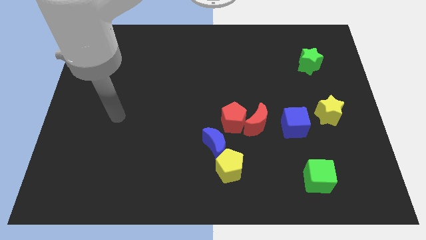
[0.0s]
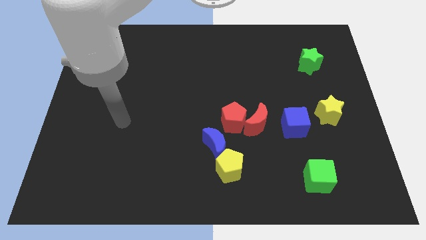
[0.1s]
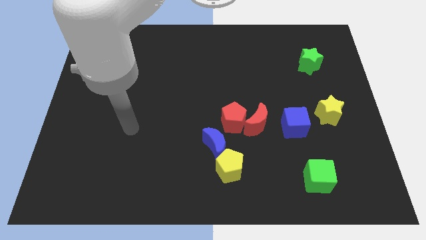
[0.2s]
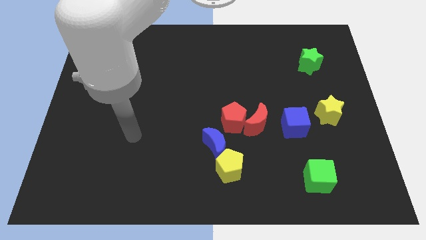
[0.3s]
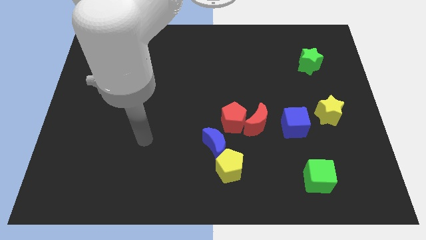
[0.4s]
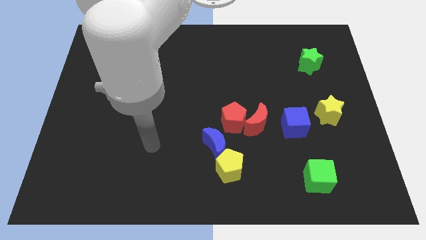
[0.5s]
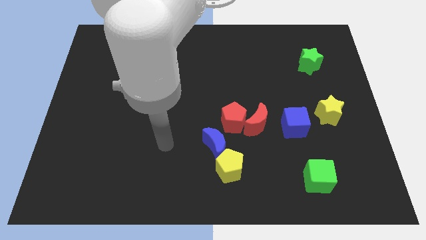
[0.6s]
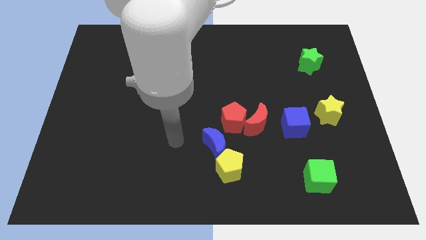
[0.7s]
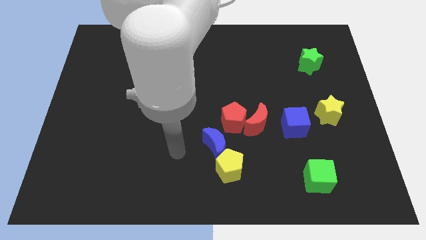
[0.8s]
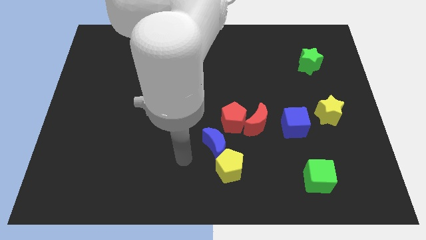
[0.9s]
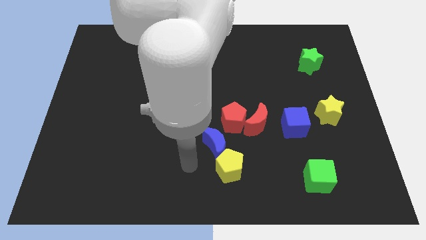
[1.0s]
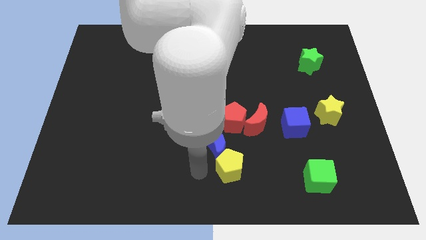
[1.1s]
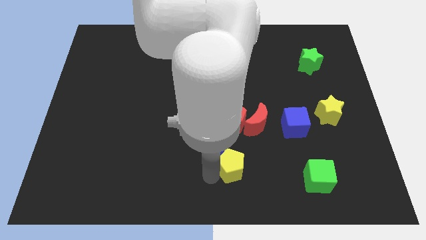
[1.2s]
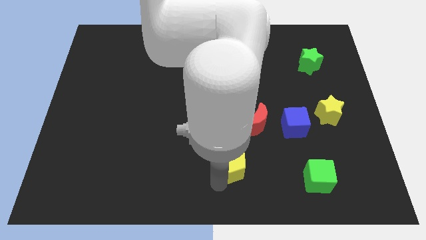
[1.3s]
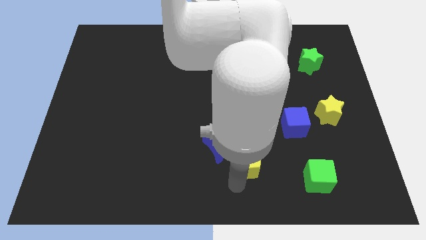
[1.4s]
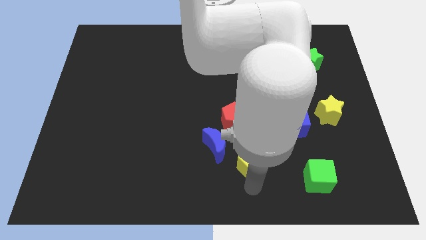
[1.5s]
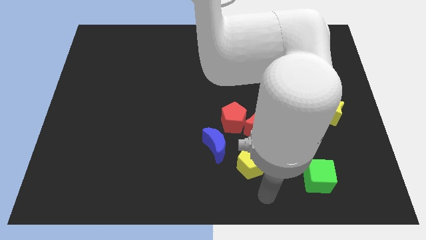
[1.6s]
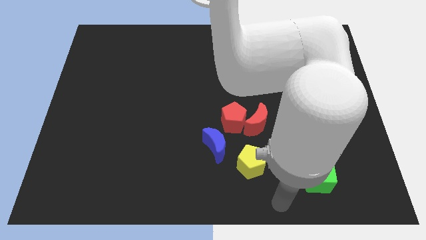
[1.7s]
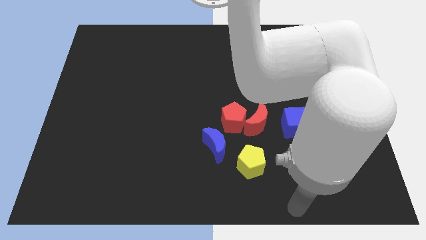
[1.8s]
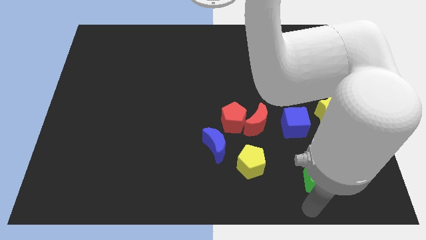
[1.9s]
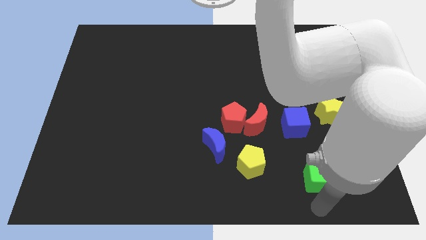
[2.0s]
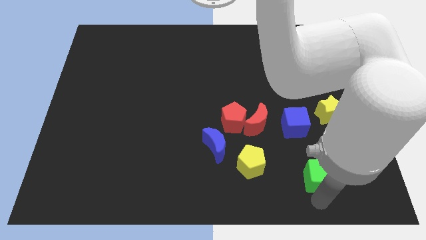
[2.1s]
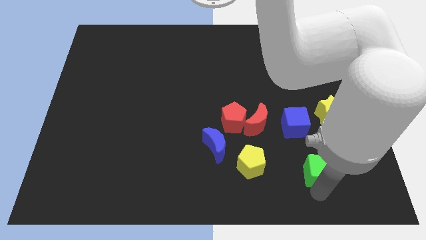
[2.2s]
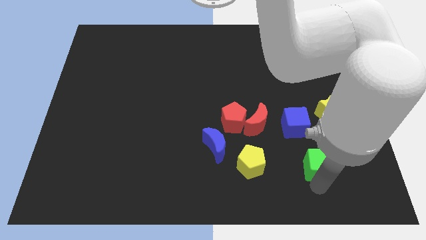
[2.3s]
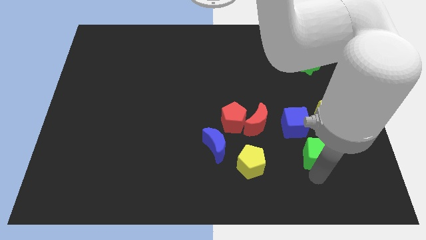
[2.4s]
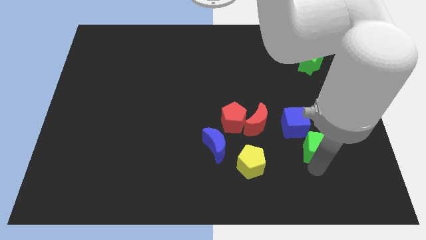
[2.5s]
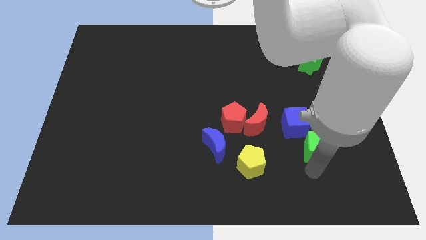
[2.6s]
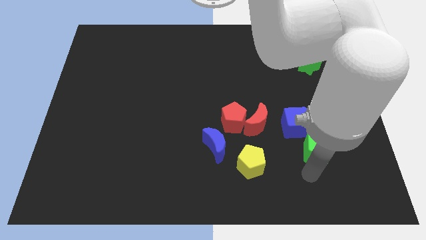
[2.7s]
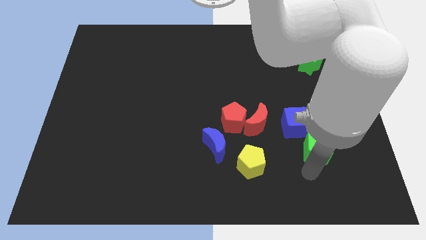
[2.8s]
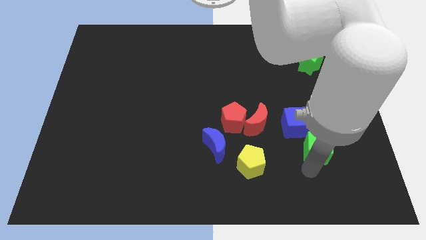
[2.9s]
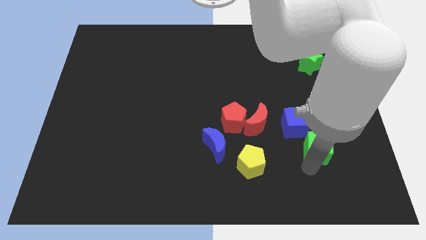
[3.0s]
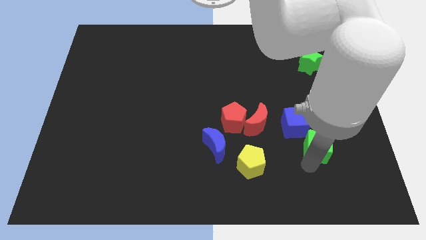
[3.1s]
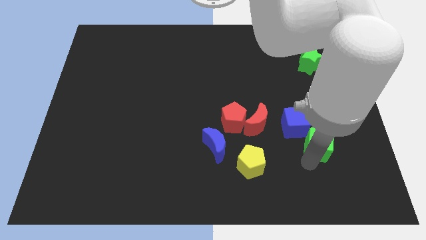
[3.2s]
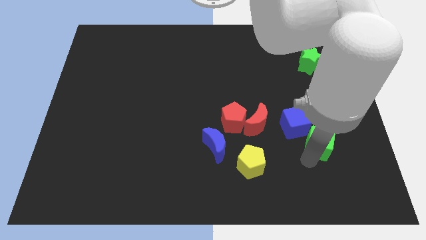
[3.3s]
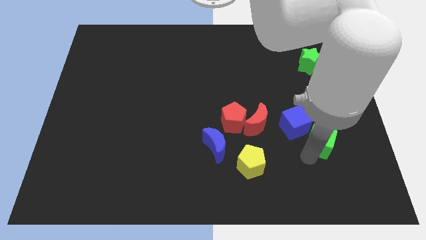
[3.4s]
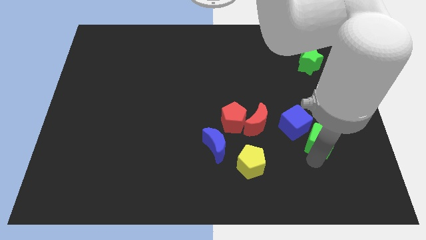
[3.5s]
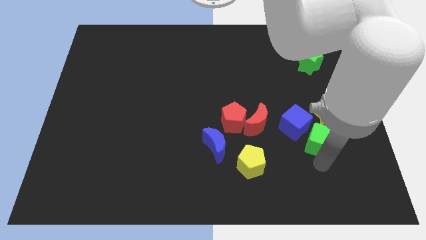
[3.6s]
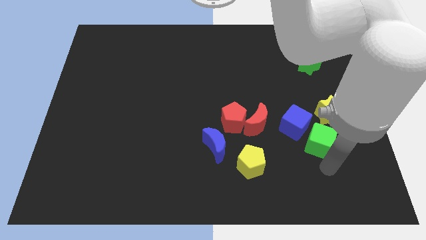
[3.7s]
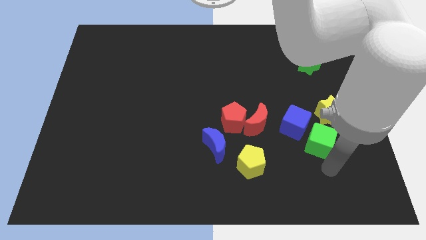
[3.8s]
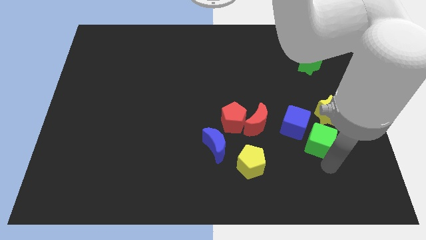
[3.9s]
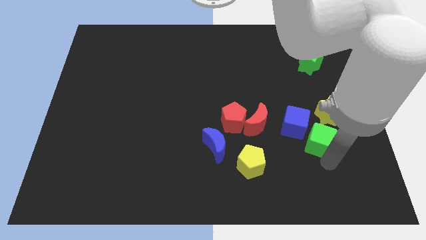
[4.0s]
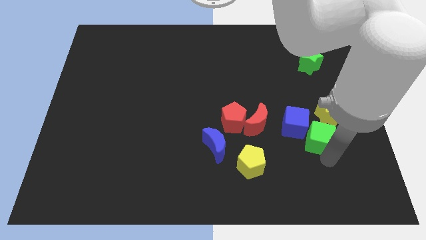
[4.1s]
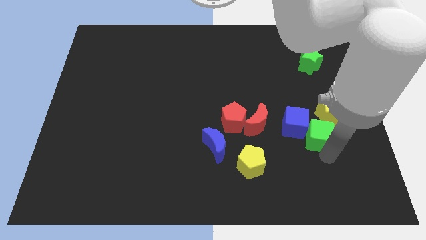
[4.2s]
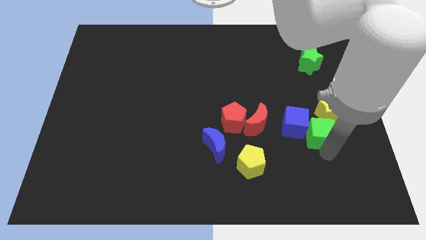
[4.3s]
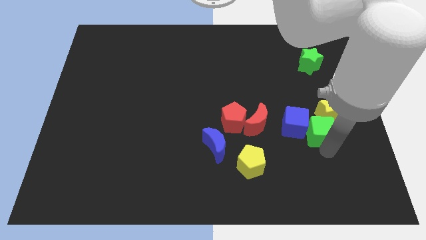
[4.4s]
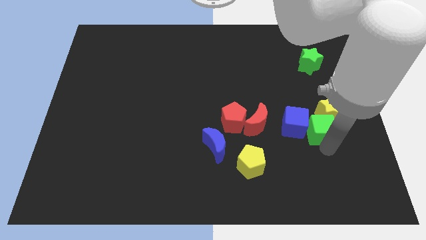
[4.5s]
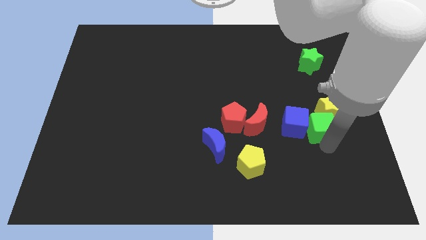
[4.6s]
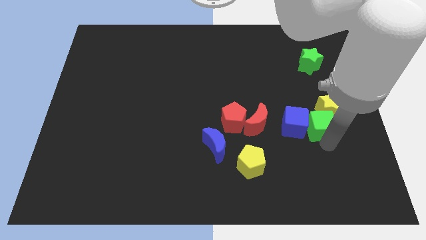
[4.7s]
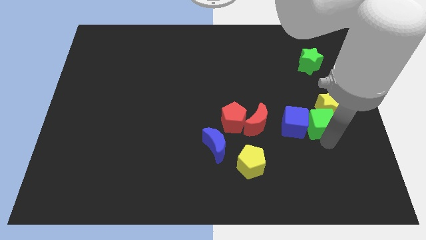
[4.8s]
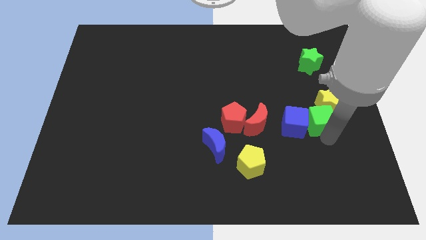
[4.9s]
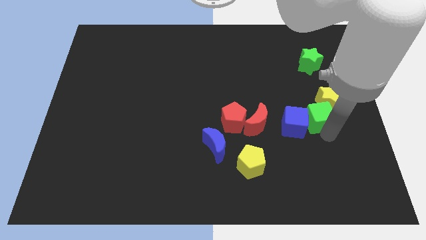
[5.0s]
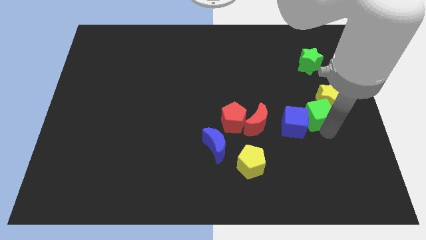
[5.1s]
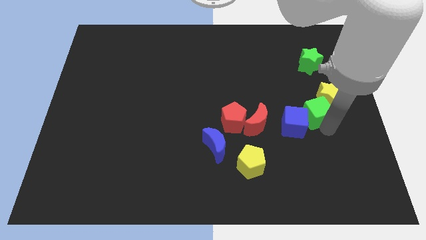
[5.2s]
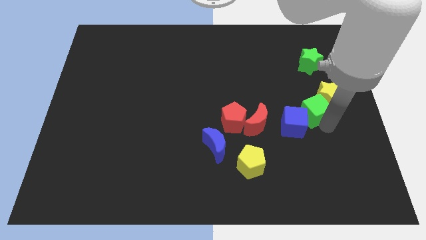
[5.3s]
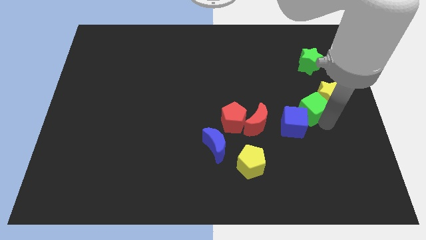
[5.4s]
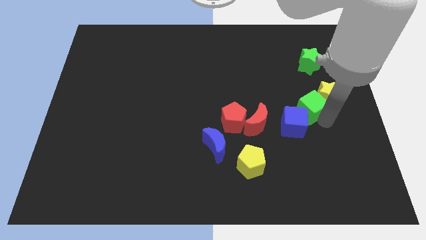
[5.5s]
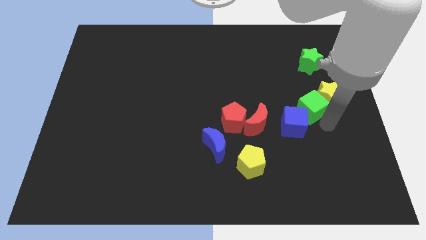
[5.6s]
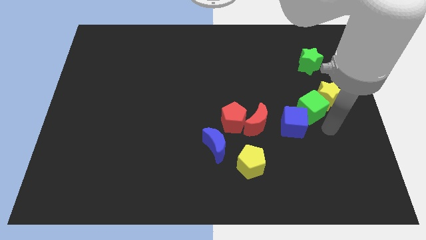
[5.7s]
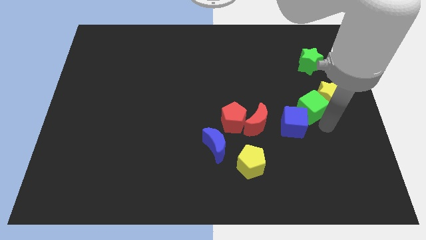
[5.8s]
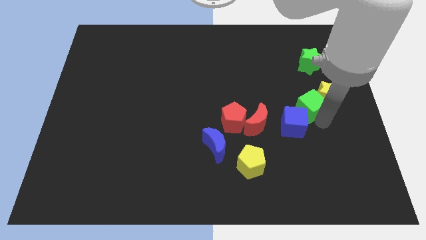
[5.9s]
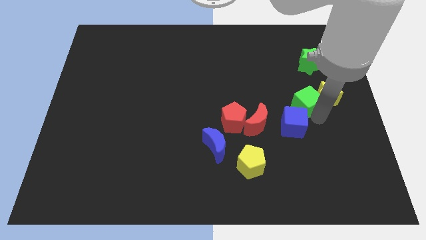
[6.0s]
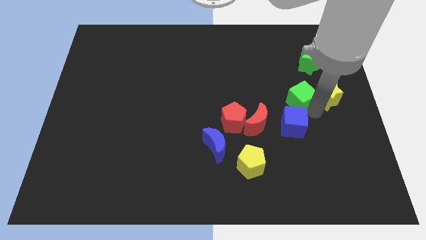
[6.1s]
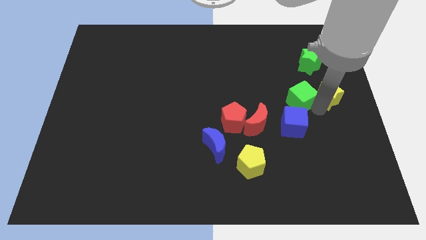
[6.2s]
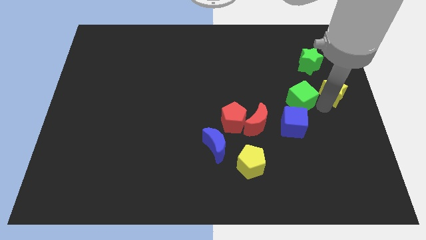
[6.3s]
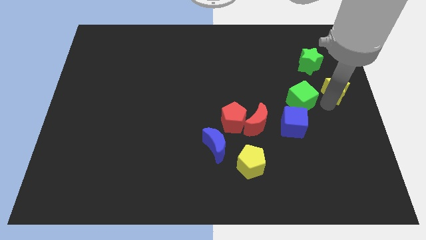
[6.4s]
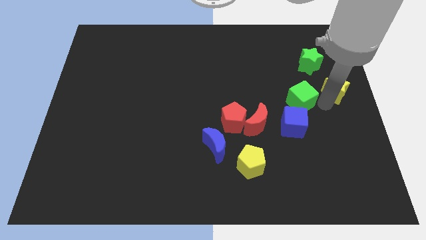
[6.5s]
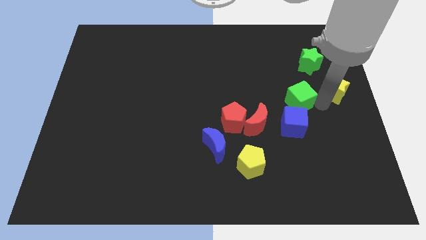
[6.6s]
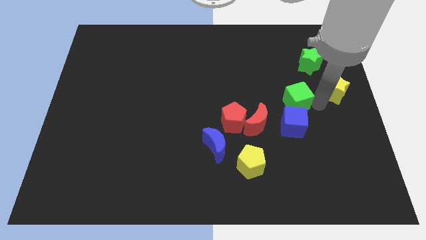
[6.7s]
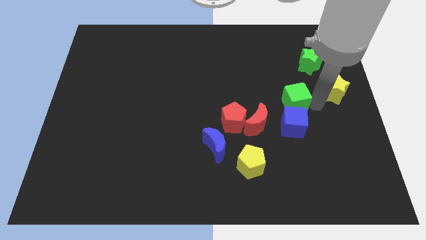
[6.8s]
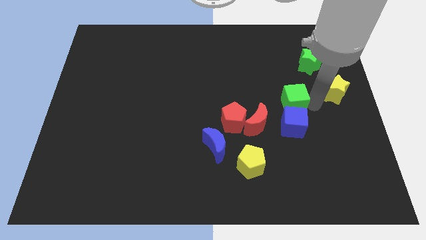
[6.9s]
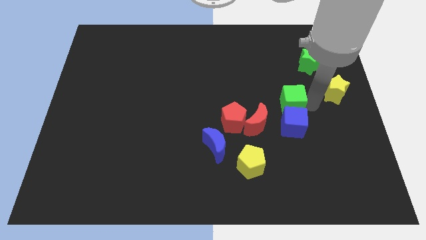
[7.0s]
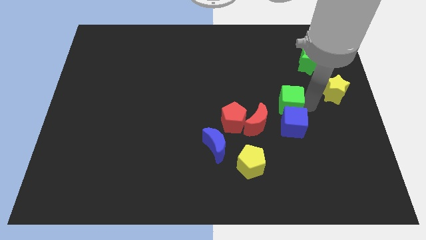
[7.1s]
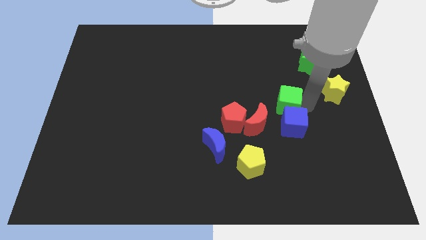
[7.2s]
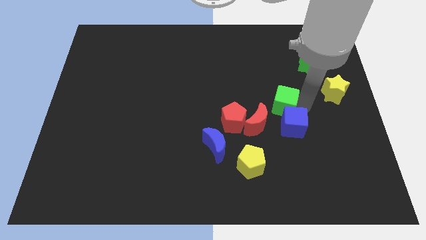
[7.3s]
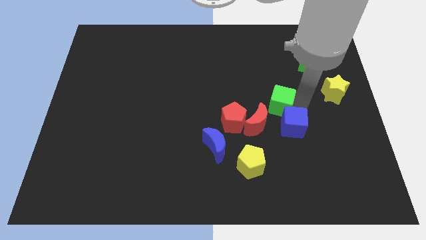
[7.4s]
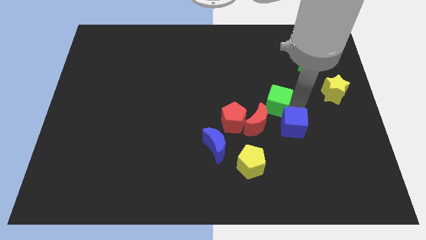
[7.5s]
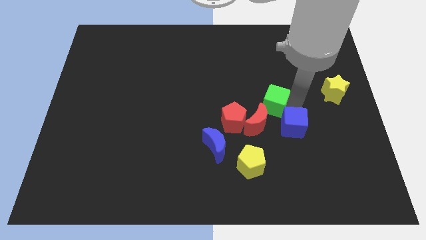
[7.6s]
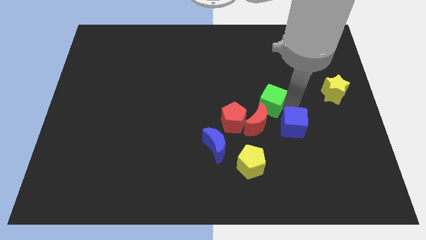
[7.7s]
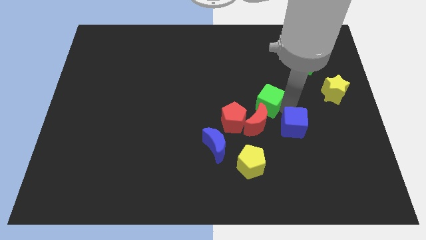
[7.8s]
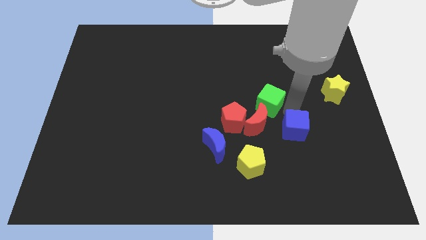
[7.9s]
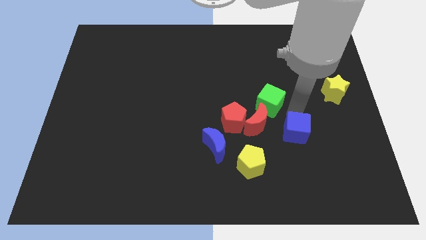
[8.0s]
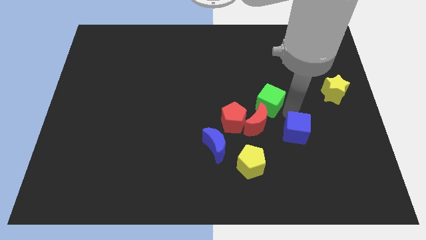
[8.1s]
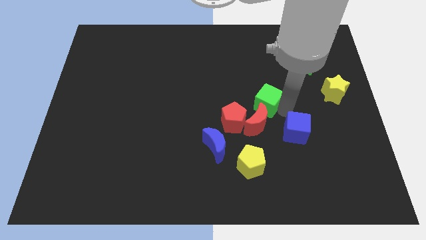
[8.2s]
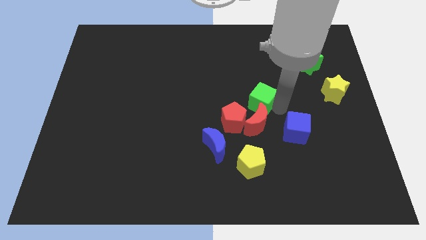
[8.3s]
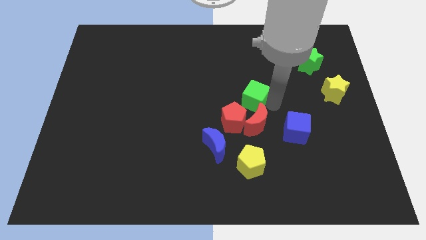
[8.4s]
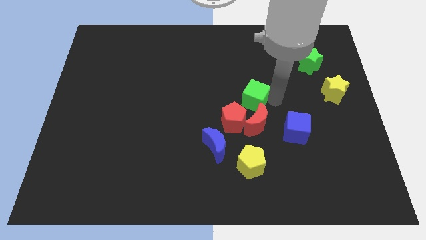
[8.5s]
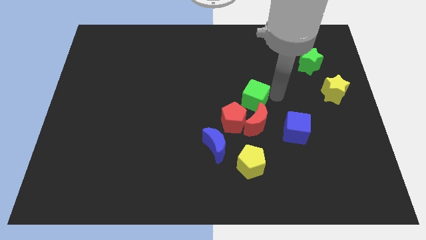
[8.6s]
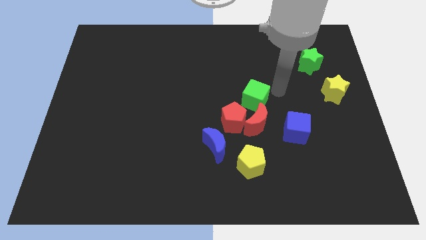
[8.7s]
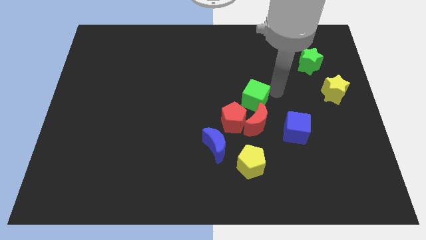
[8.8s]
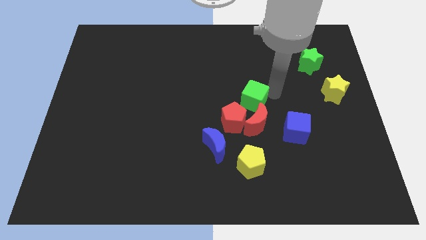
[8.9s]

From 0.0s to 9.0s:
slide the green cube to the top left of the red moon
